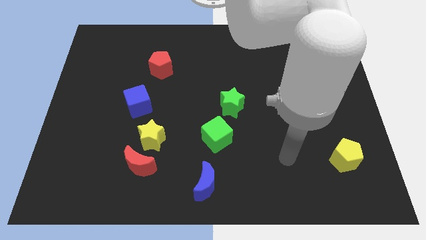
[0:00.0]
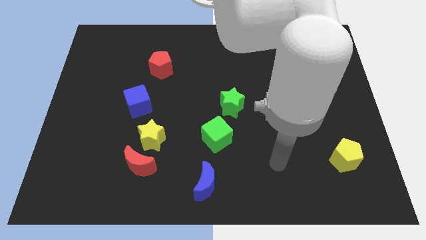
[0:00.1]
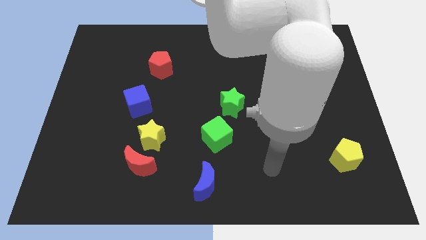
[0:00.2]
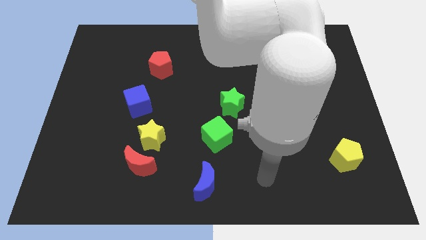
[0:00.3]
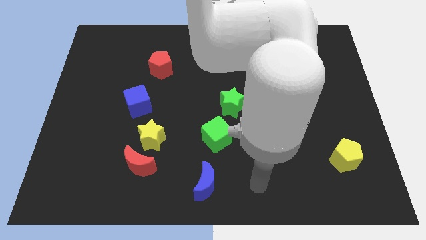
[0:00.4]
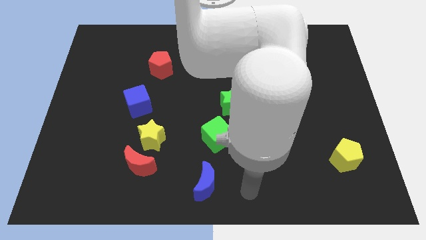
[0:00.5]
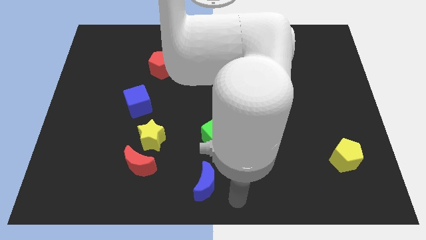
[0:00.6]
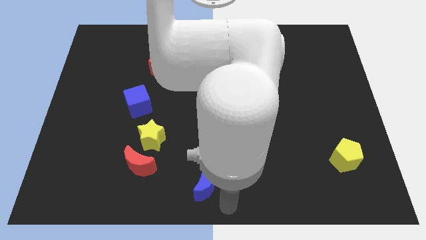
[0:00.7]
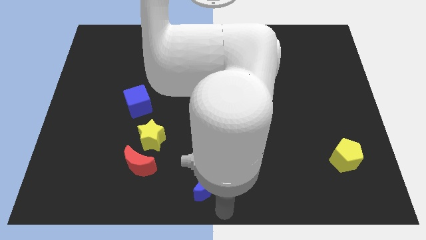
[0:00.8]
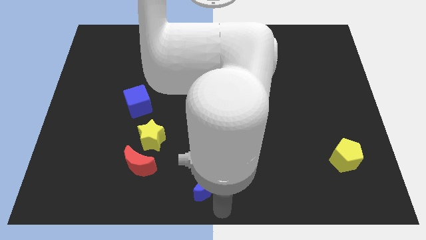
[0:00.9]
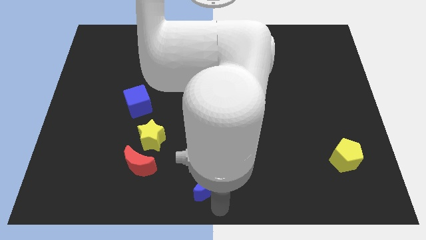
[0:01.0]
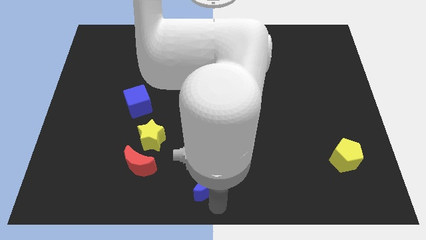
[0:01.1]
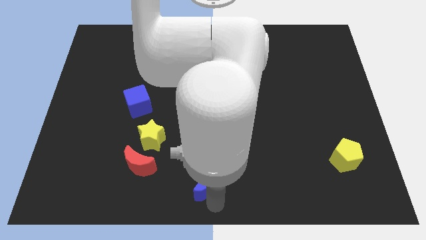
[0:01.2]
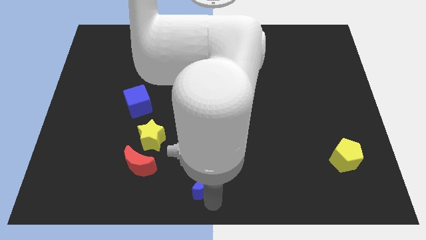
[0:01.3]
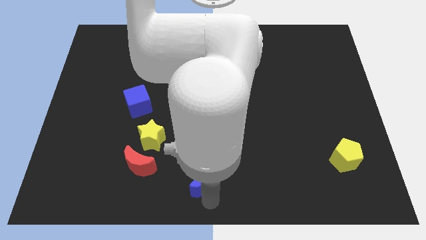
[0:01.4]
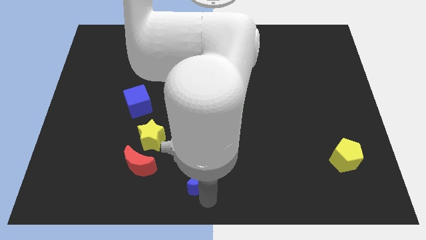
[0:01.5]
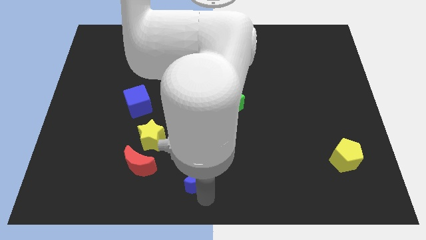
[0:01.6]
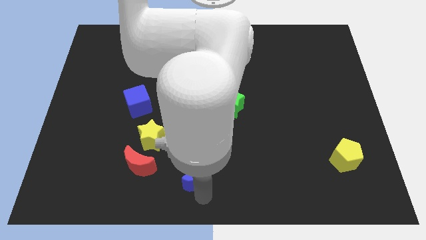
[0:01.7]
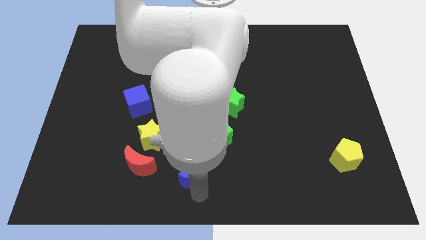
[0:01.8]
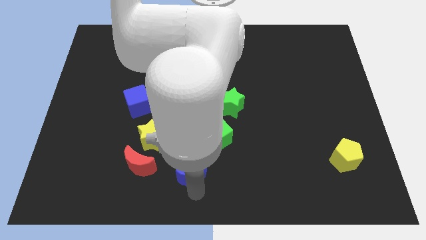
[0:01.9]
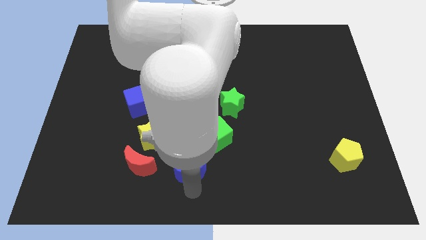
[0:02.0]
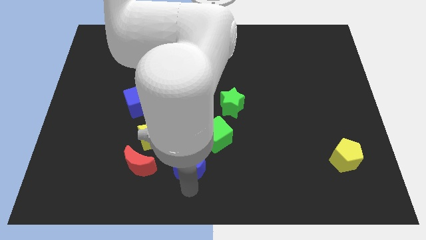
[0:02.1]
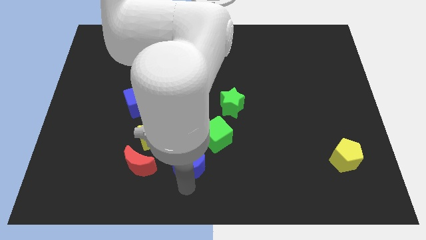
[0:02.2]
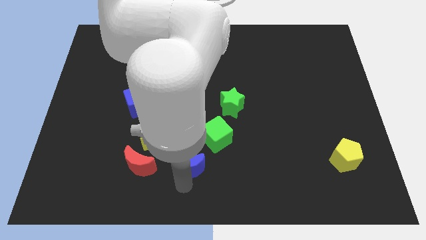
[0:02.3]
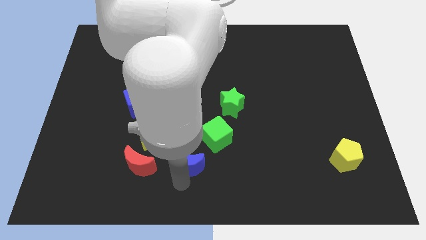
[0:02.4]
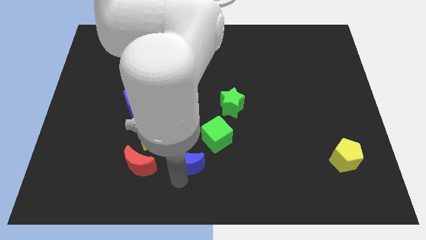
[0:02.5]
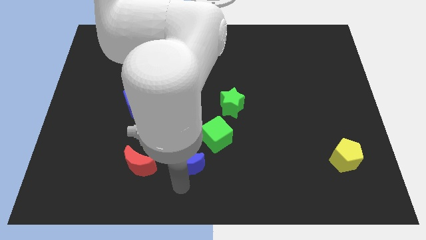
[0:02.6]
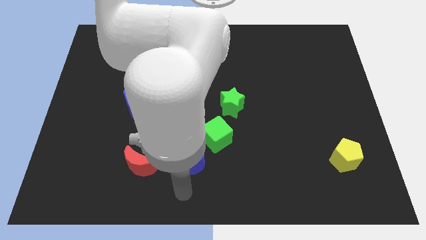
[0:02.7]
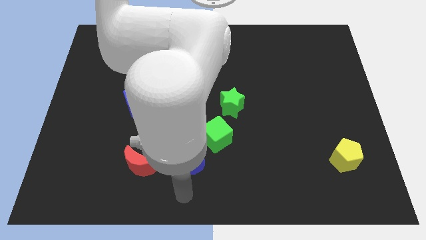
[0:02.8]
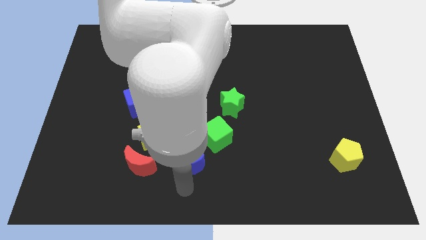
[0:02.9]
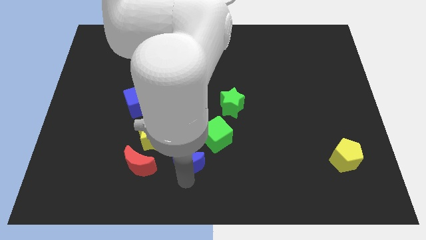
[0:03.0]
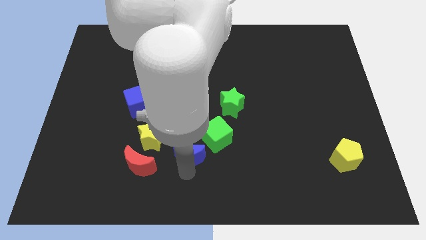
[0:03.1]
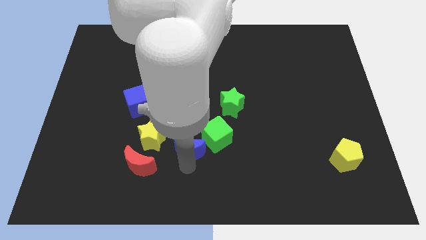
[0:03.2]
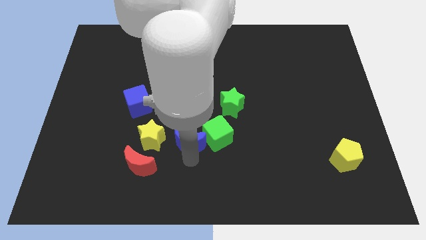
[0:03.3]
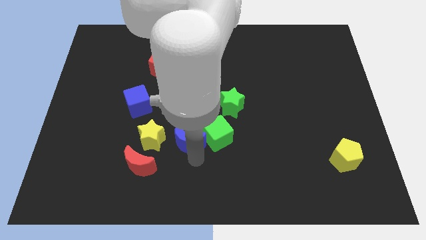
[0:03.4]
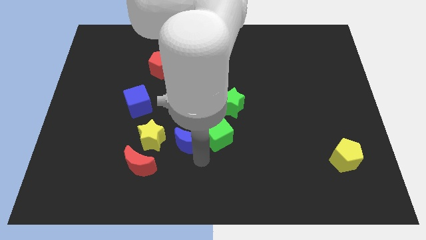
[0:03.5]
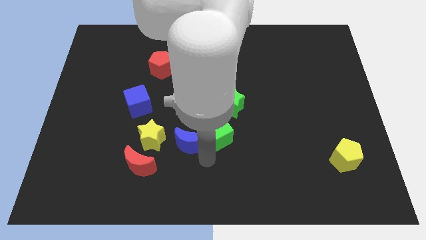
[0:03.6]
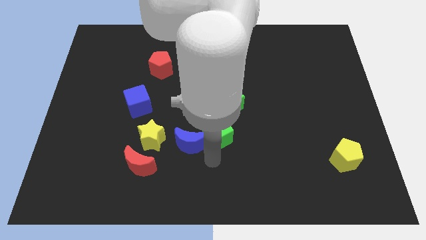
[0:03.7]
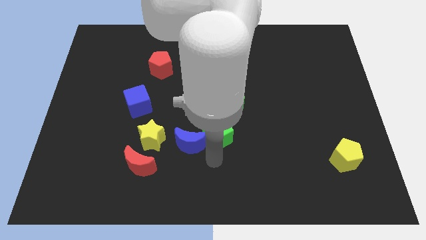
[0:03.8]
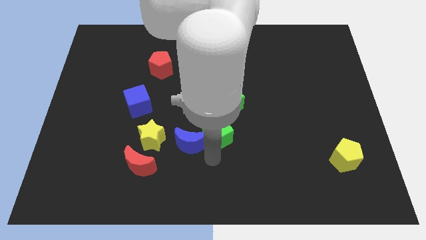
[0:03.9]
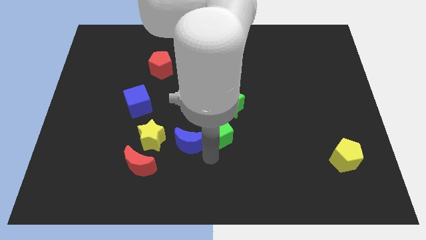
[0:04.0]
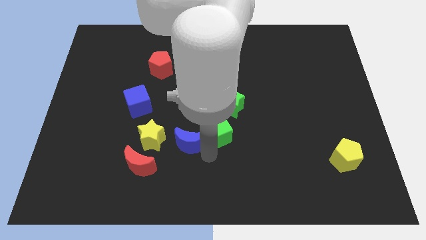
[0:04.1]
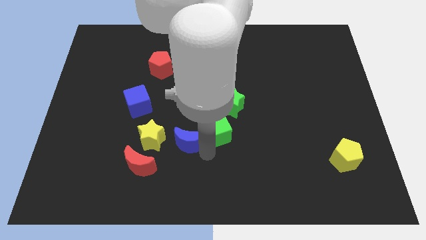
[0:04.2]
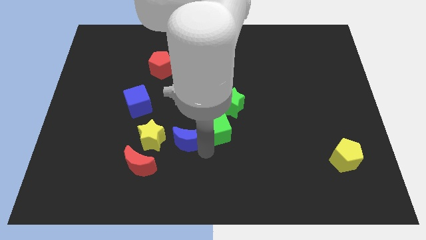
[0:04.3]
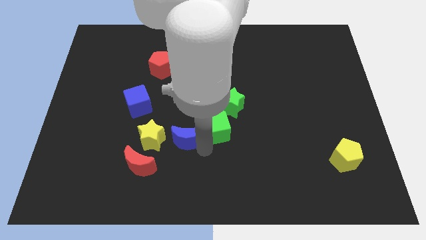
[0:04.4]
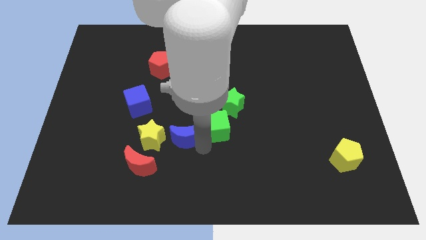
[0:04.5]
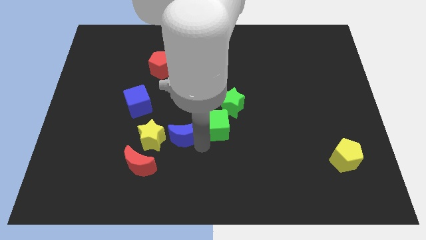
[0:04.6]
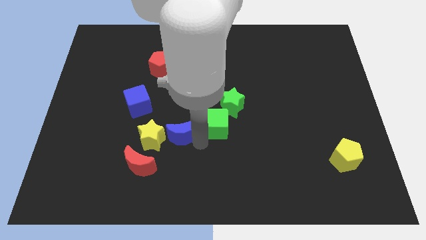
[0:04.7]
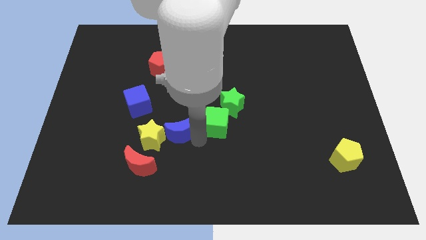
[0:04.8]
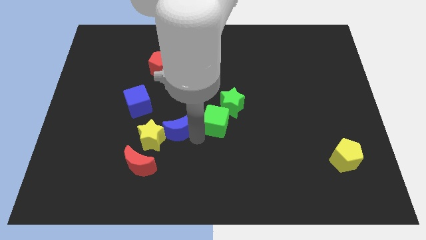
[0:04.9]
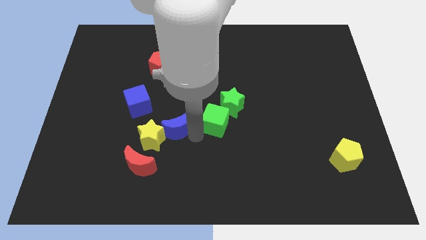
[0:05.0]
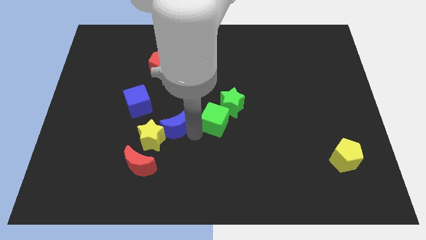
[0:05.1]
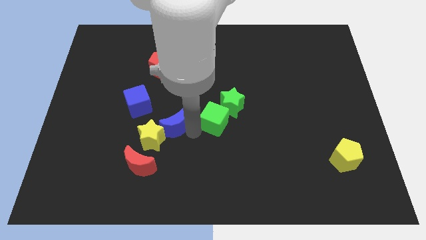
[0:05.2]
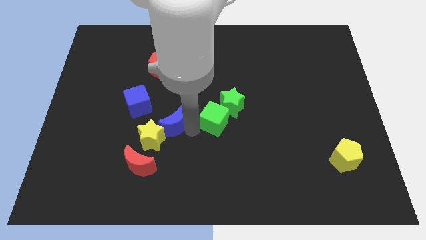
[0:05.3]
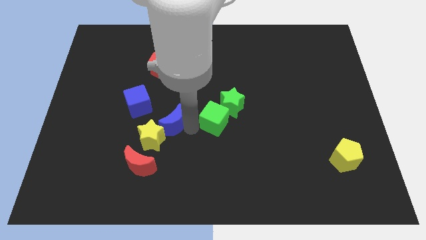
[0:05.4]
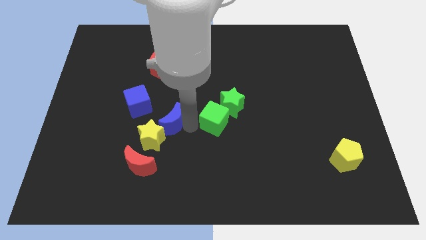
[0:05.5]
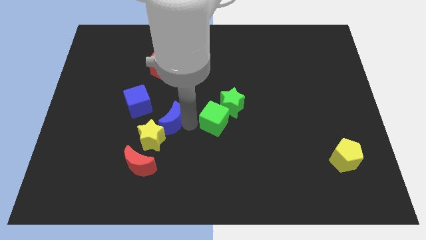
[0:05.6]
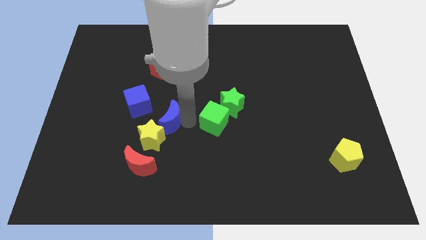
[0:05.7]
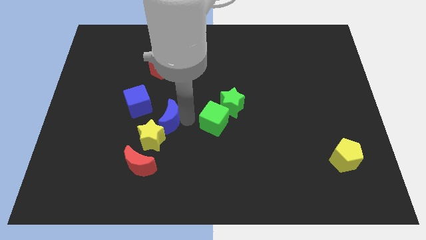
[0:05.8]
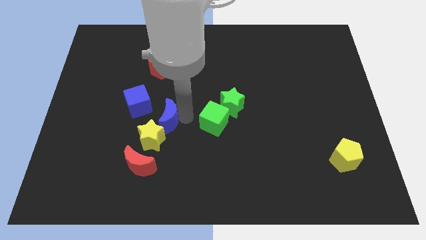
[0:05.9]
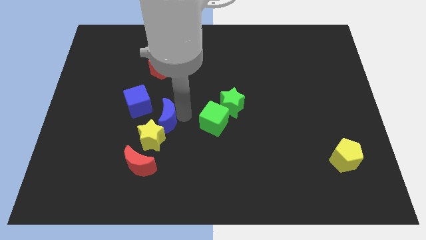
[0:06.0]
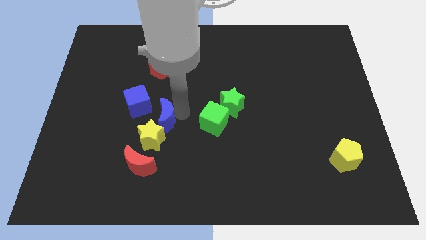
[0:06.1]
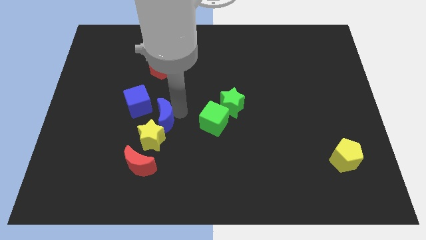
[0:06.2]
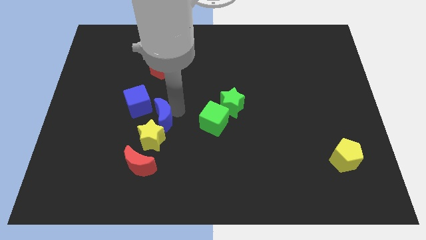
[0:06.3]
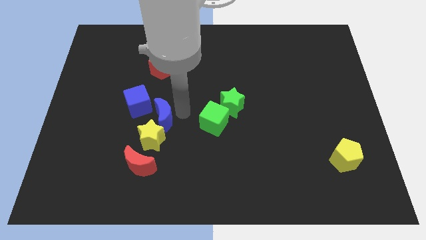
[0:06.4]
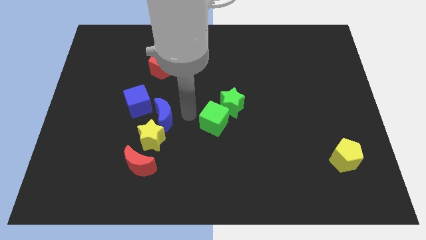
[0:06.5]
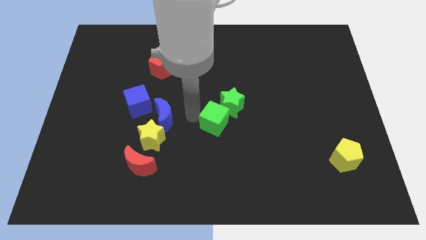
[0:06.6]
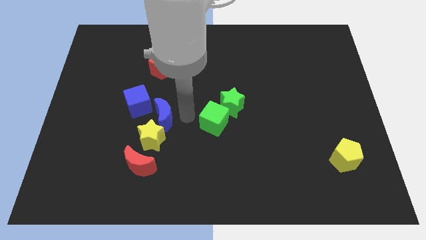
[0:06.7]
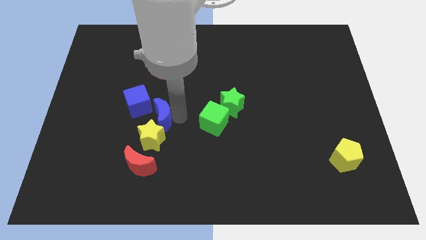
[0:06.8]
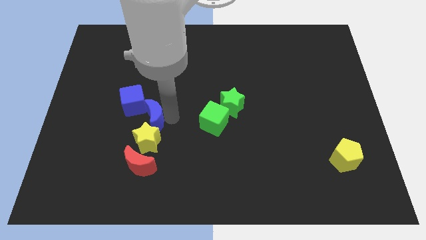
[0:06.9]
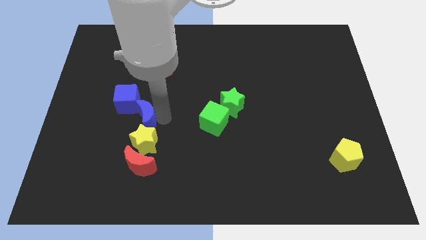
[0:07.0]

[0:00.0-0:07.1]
slide the blue moon to the top left of the yellow star
